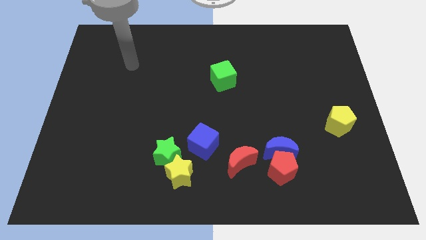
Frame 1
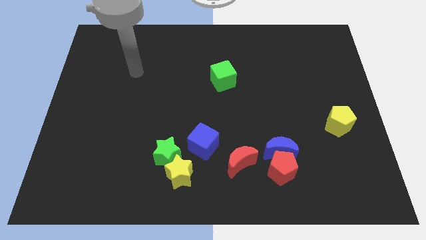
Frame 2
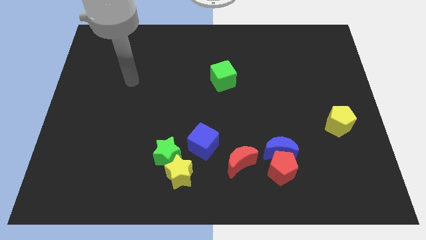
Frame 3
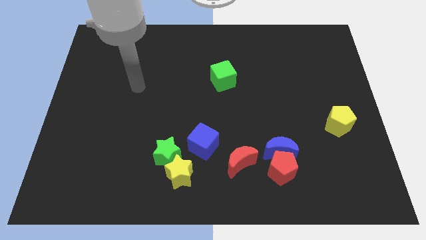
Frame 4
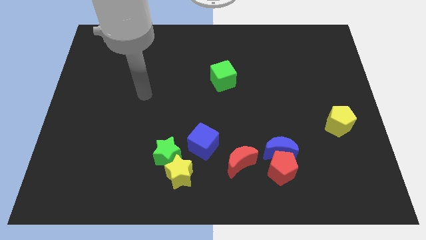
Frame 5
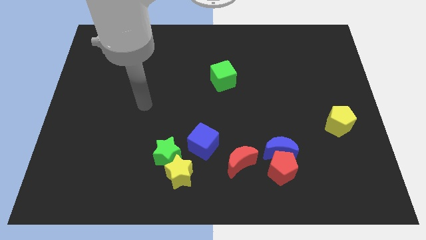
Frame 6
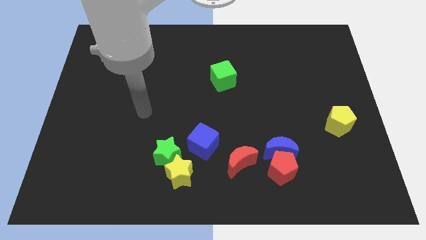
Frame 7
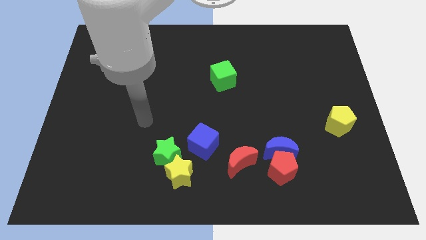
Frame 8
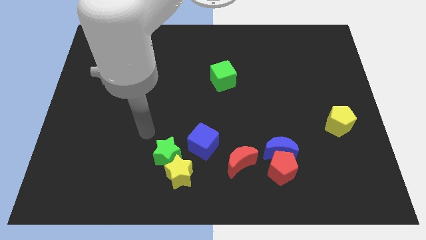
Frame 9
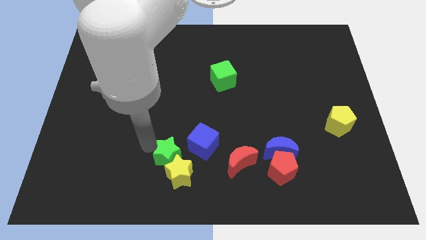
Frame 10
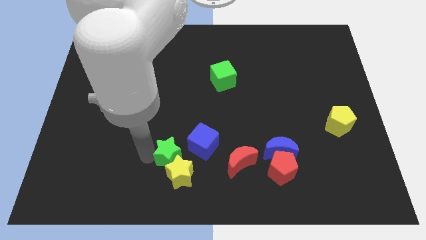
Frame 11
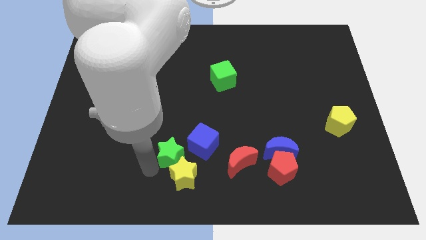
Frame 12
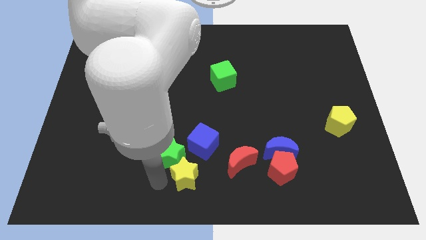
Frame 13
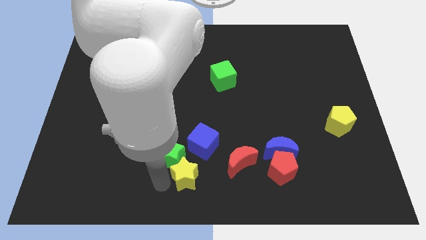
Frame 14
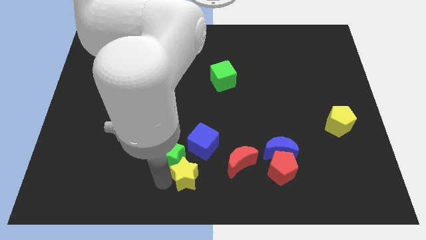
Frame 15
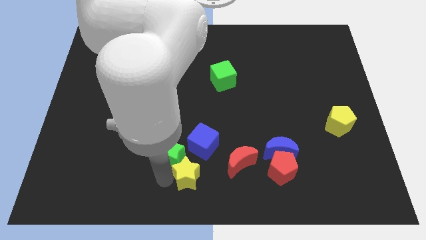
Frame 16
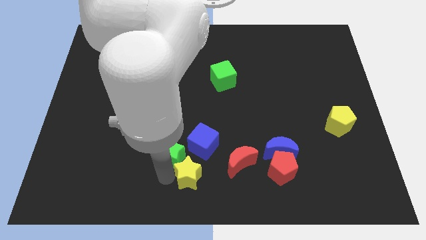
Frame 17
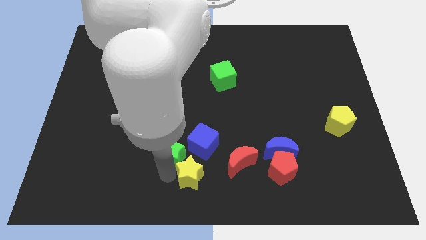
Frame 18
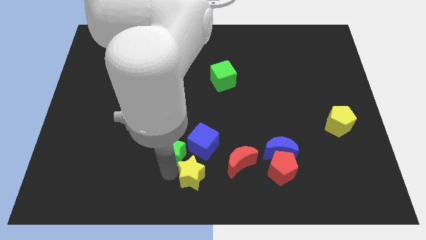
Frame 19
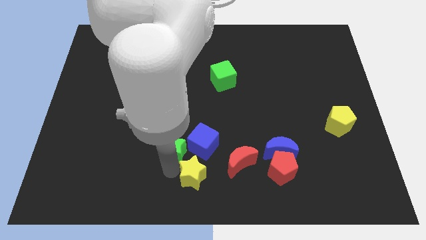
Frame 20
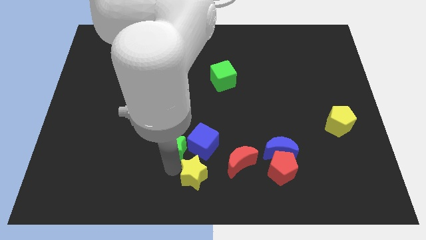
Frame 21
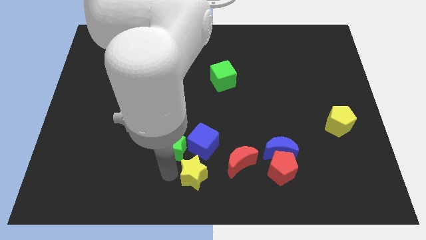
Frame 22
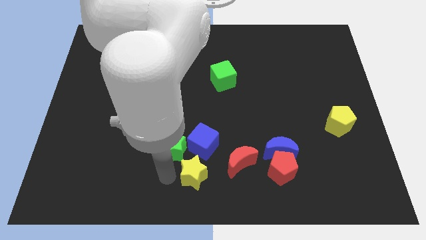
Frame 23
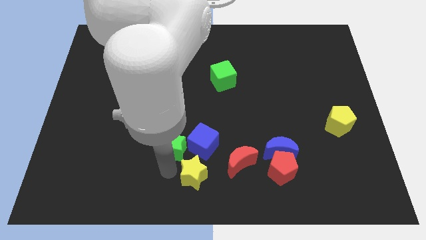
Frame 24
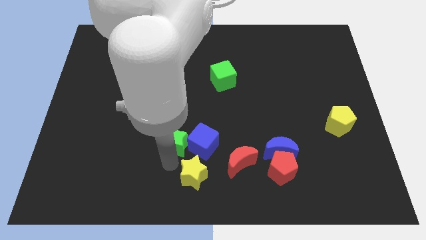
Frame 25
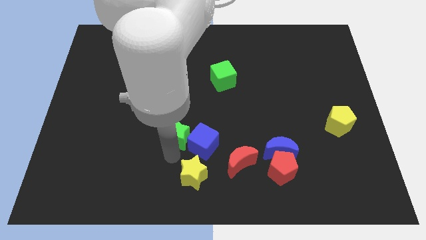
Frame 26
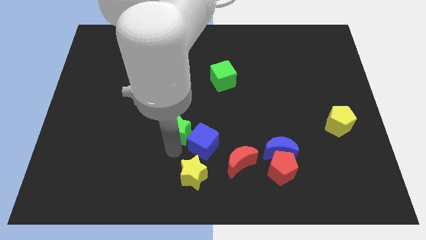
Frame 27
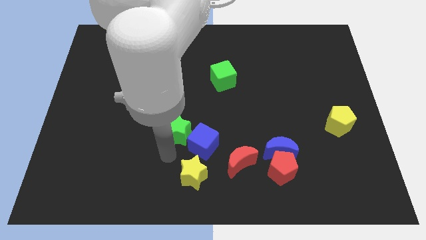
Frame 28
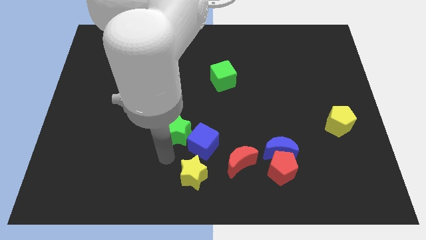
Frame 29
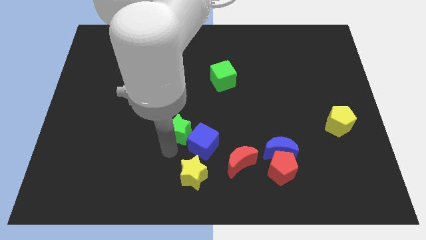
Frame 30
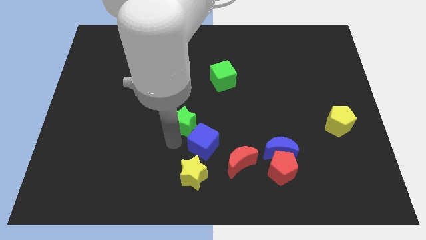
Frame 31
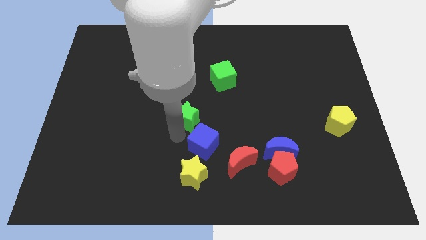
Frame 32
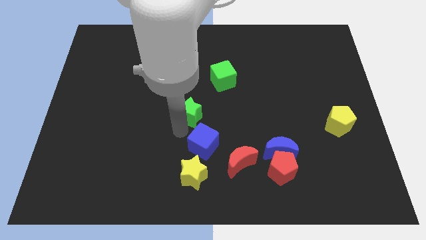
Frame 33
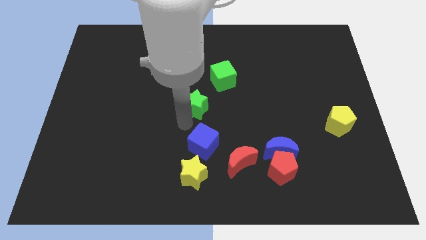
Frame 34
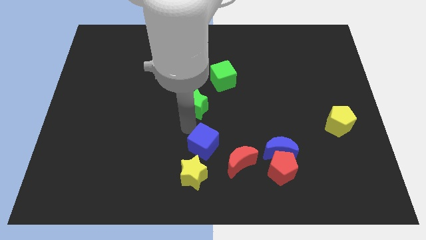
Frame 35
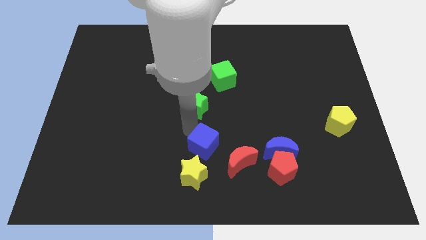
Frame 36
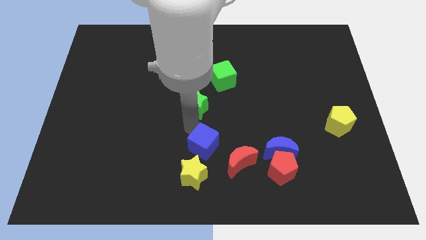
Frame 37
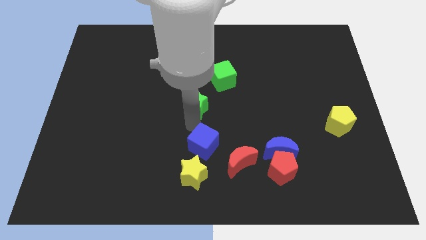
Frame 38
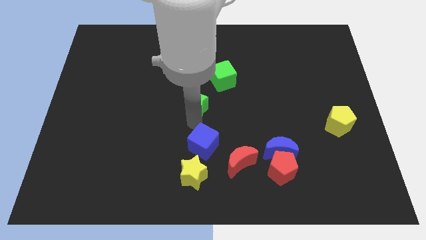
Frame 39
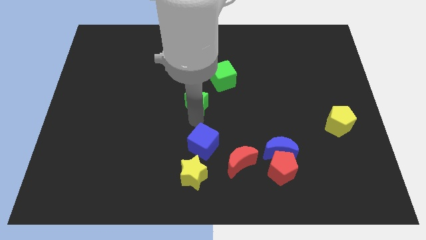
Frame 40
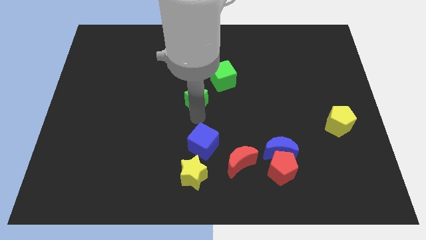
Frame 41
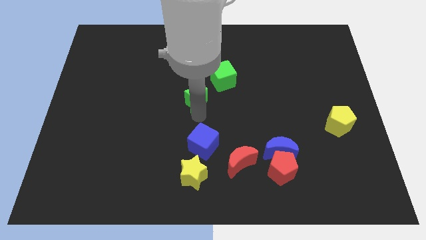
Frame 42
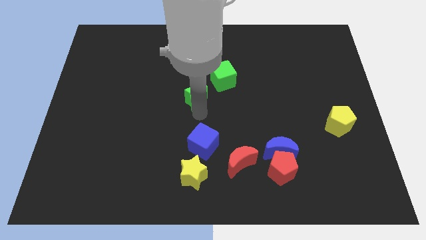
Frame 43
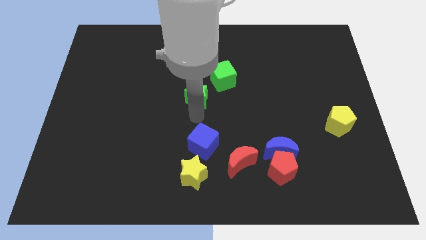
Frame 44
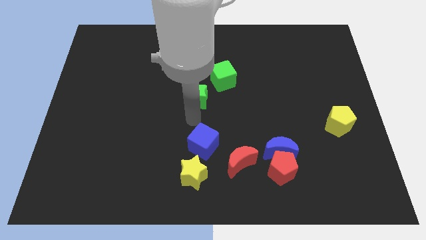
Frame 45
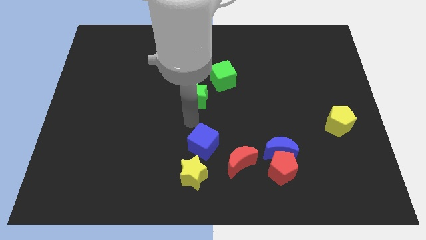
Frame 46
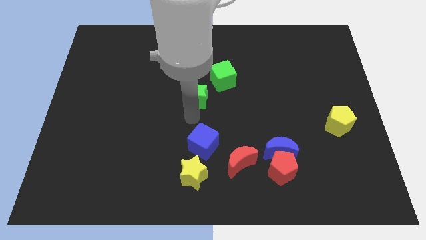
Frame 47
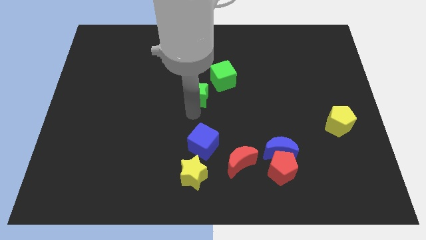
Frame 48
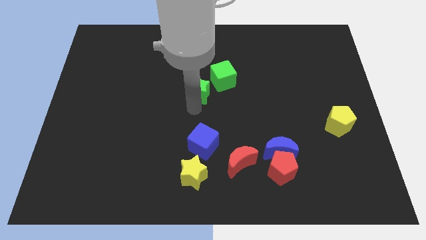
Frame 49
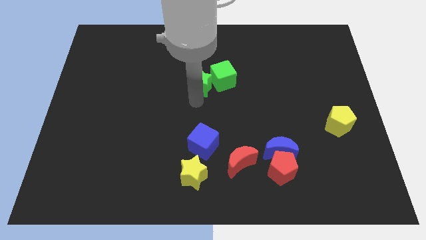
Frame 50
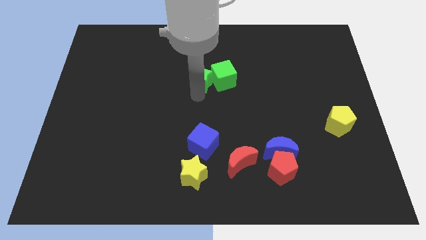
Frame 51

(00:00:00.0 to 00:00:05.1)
put the green star to the top left side of the green cube

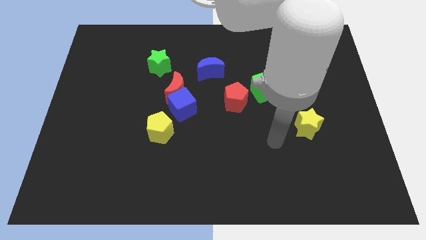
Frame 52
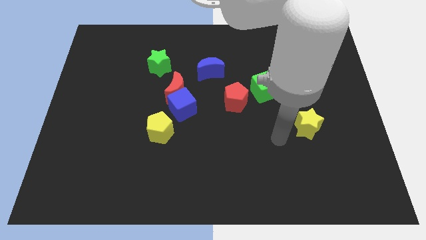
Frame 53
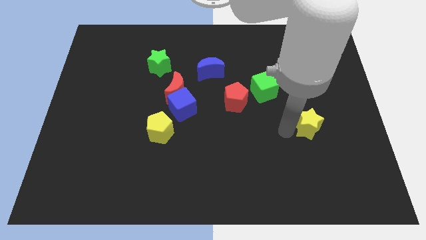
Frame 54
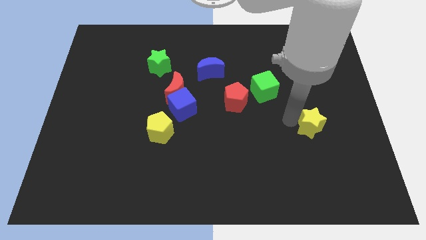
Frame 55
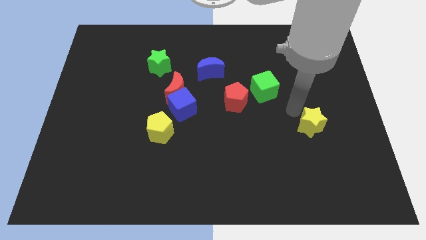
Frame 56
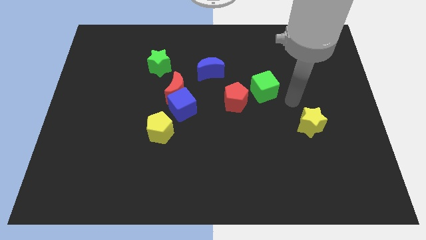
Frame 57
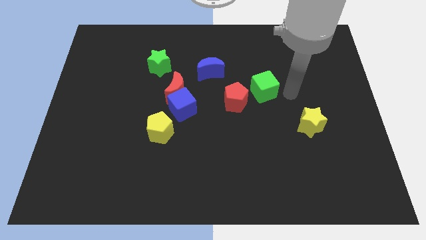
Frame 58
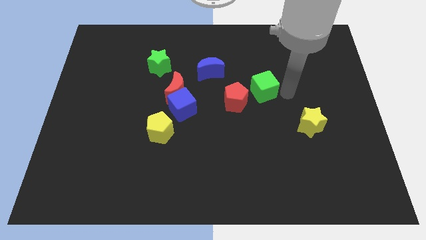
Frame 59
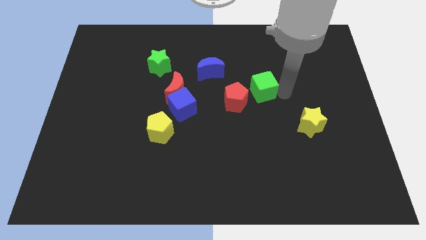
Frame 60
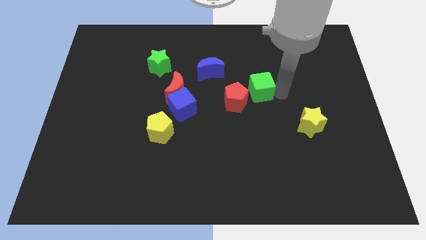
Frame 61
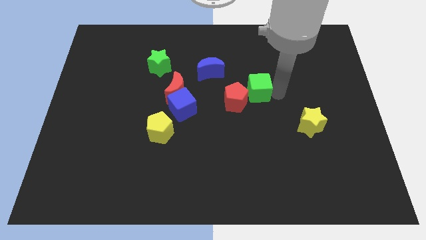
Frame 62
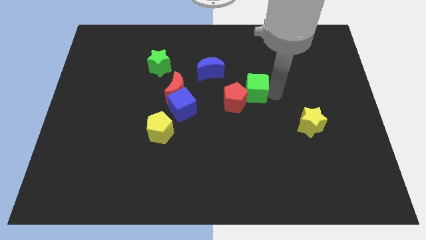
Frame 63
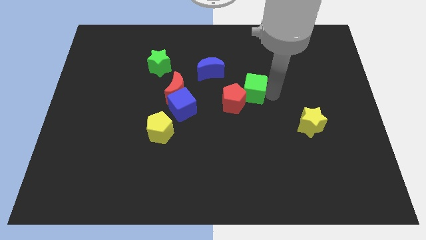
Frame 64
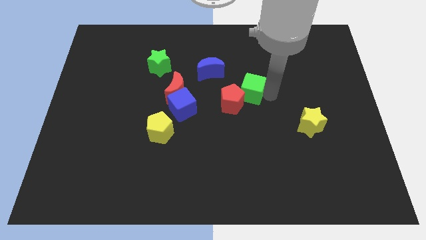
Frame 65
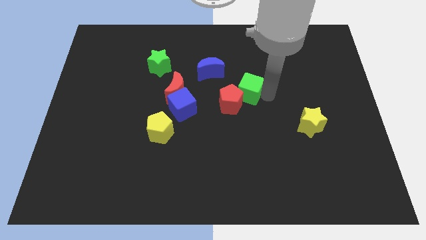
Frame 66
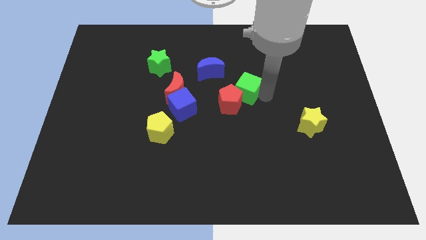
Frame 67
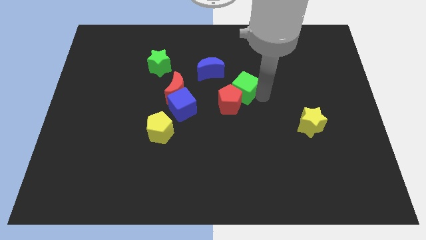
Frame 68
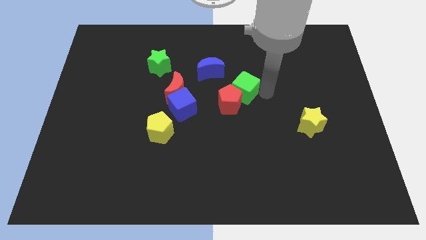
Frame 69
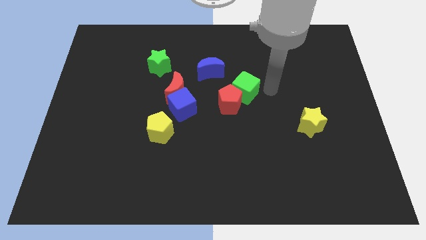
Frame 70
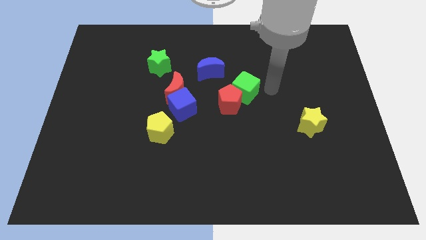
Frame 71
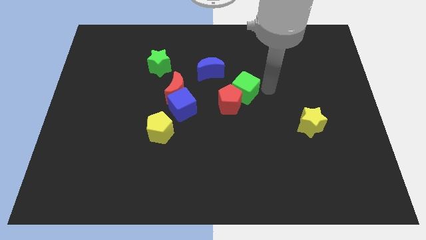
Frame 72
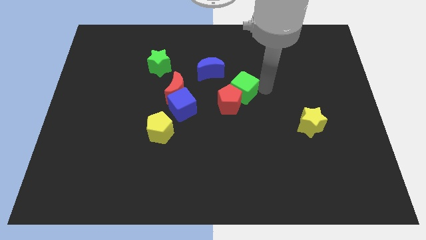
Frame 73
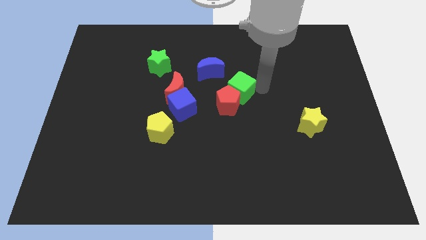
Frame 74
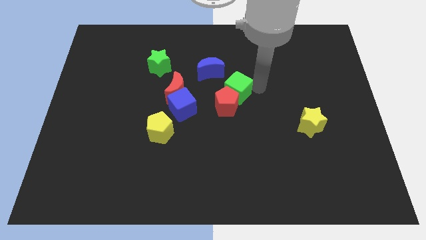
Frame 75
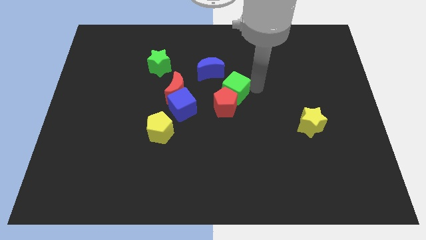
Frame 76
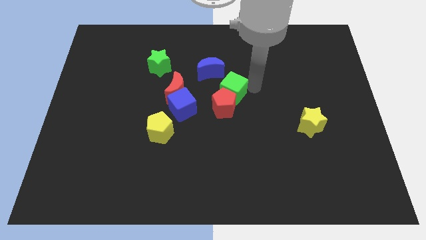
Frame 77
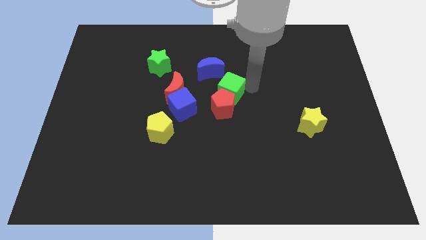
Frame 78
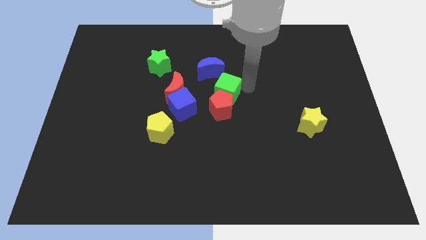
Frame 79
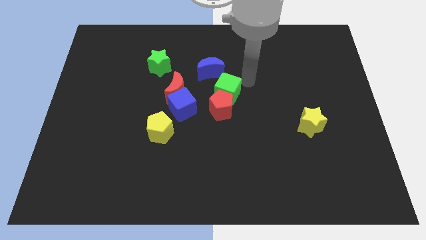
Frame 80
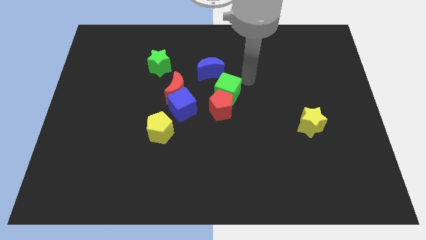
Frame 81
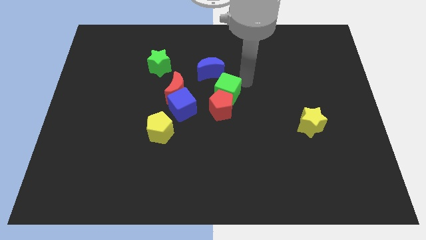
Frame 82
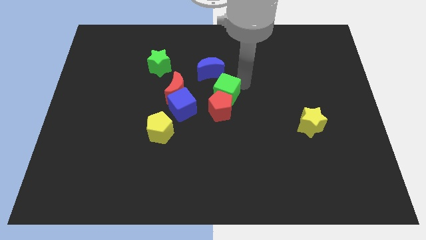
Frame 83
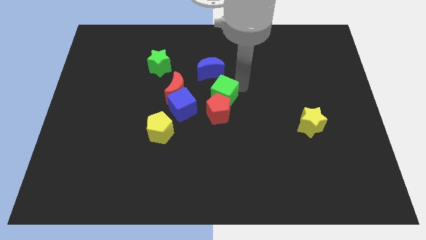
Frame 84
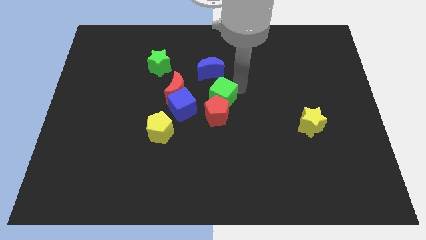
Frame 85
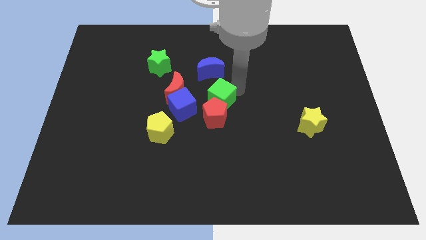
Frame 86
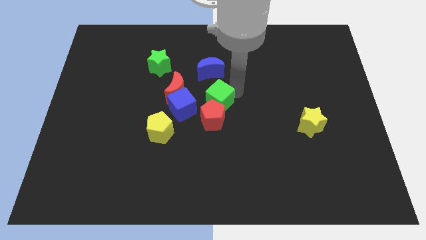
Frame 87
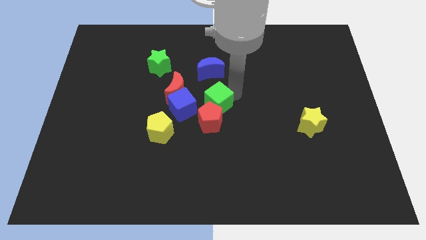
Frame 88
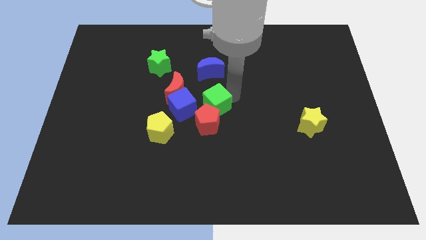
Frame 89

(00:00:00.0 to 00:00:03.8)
move the green cube diagonally down and to the right of the red moon
